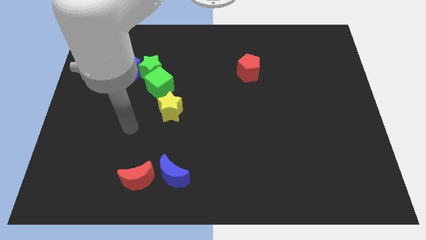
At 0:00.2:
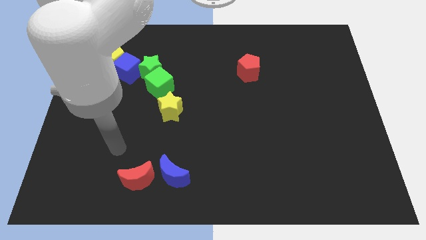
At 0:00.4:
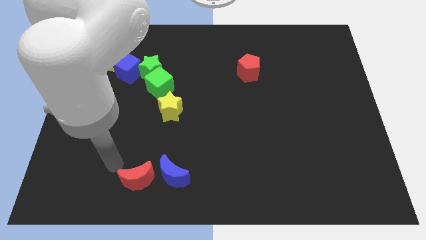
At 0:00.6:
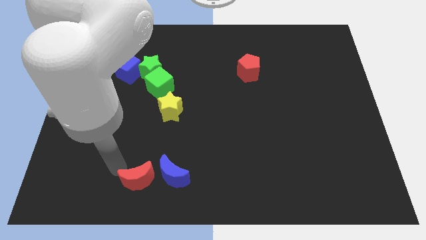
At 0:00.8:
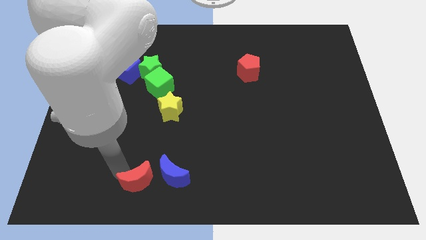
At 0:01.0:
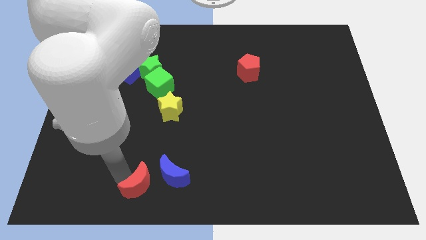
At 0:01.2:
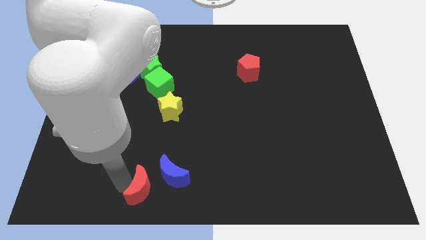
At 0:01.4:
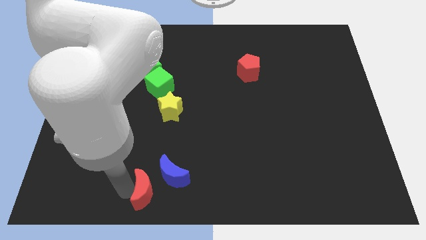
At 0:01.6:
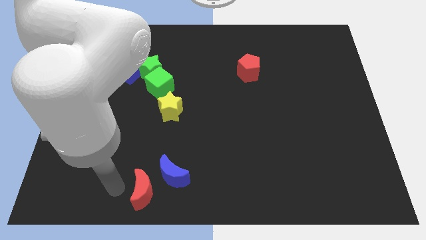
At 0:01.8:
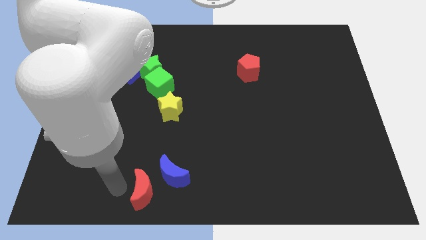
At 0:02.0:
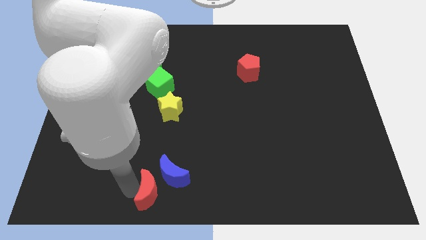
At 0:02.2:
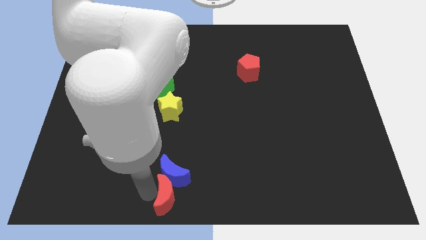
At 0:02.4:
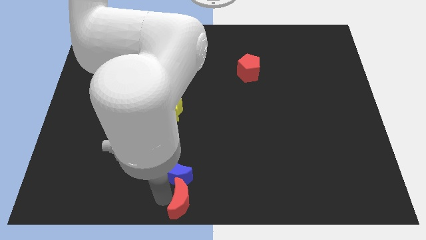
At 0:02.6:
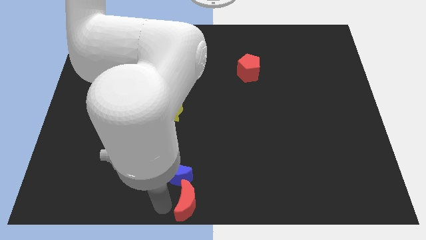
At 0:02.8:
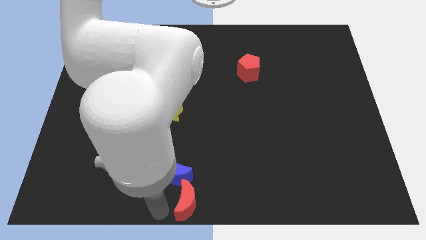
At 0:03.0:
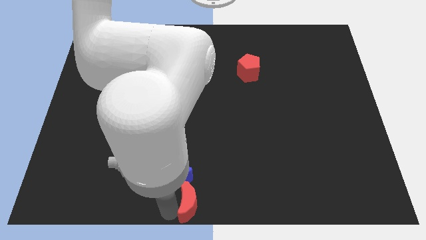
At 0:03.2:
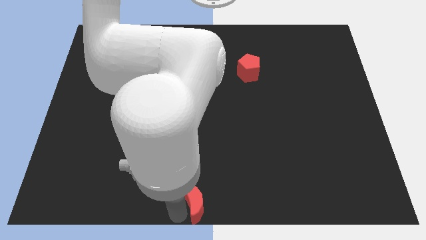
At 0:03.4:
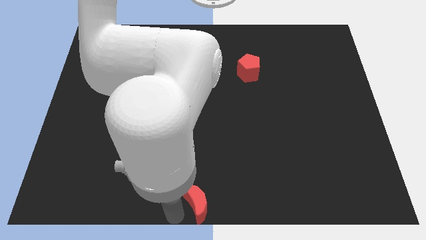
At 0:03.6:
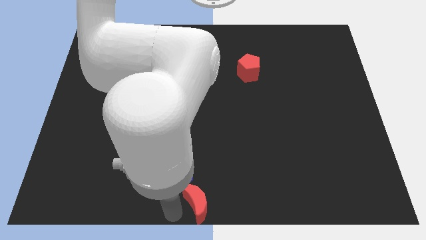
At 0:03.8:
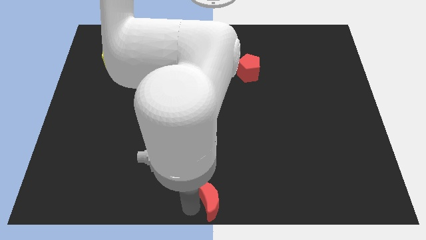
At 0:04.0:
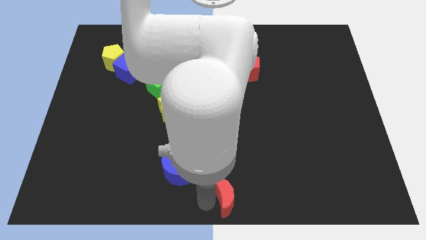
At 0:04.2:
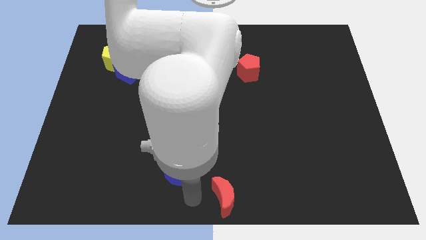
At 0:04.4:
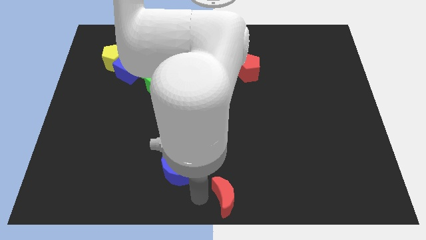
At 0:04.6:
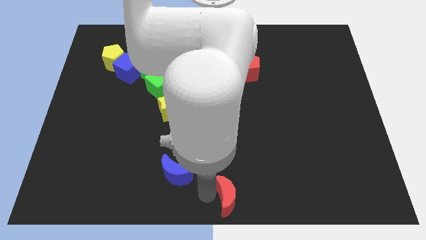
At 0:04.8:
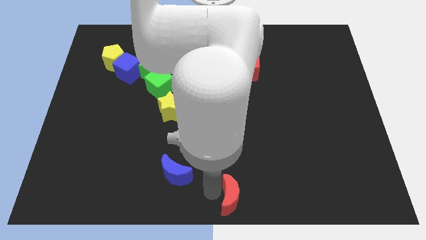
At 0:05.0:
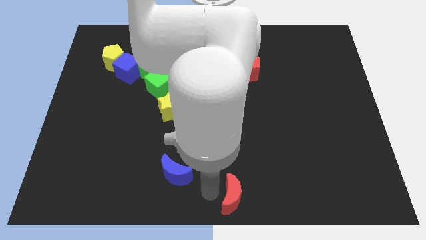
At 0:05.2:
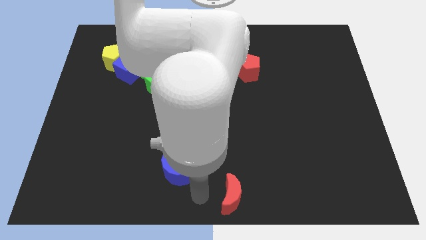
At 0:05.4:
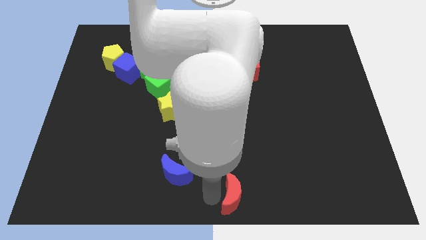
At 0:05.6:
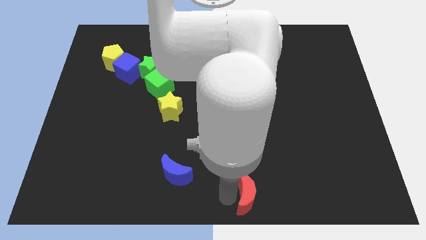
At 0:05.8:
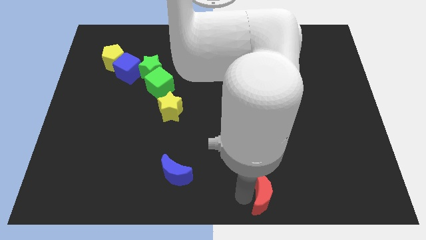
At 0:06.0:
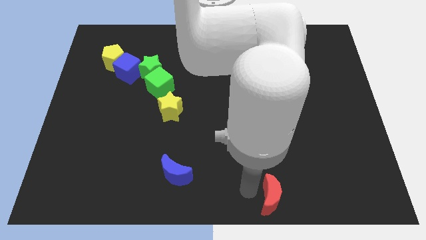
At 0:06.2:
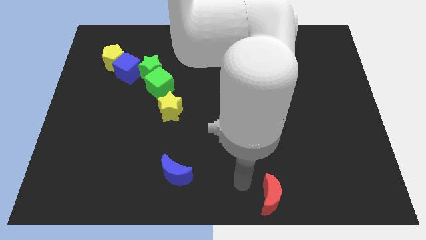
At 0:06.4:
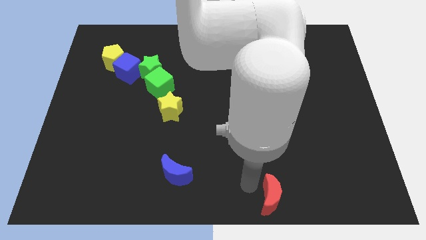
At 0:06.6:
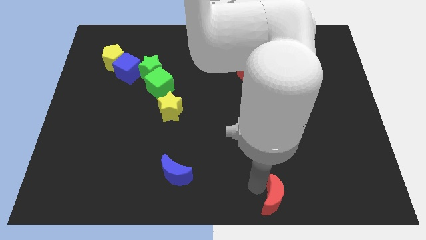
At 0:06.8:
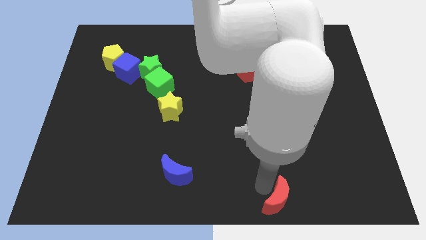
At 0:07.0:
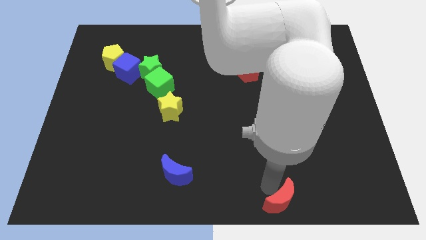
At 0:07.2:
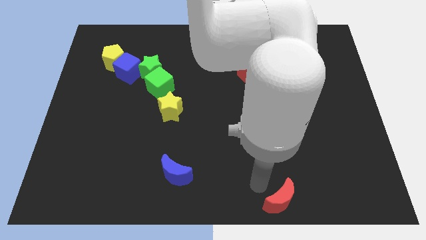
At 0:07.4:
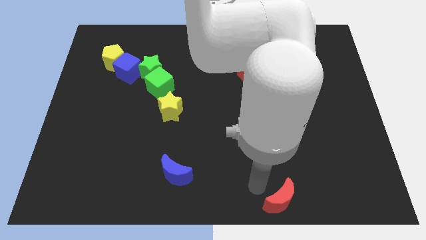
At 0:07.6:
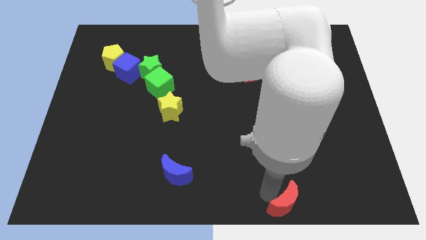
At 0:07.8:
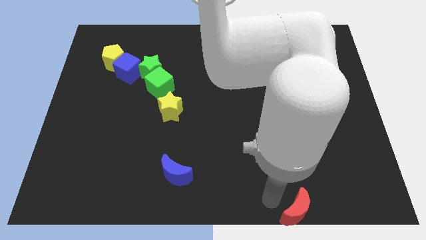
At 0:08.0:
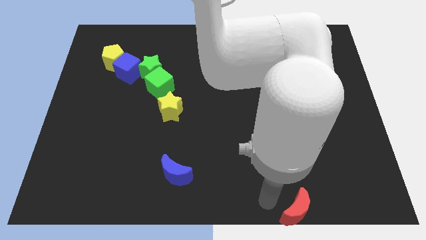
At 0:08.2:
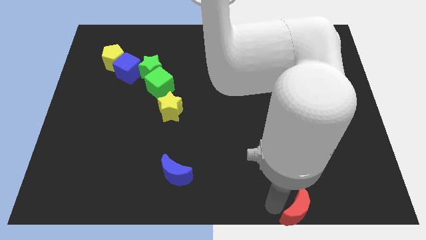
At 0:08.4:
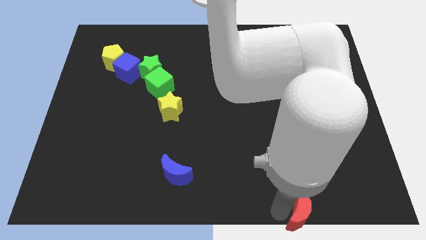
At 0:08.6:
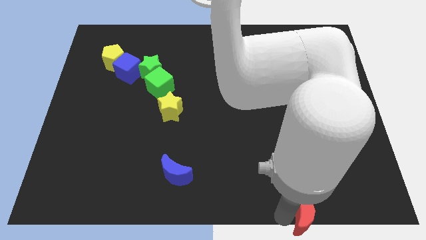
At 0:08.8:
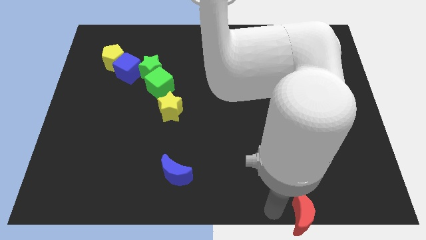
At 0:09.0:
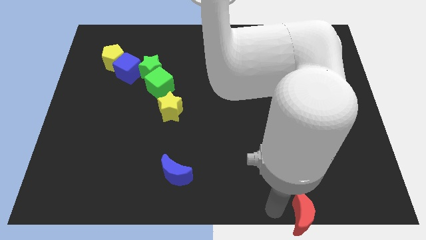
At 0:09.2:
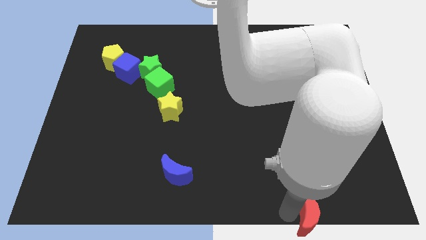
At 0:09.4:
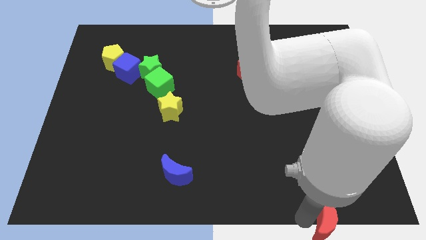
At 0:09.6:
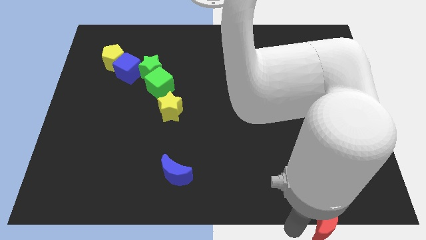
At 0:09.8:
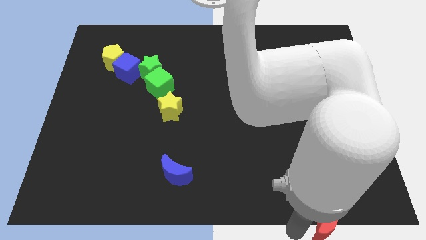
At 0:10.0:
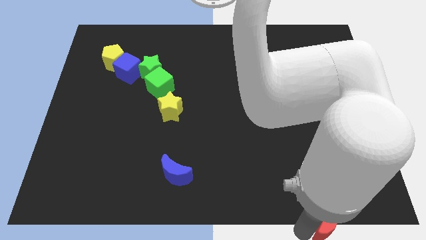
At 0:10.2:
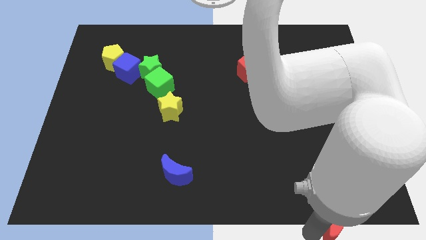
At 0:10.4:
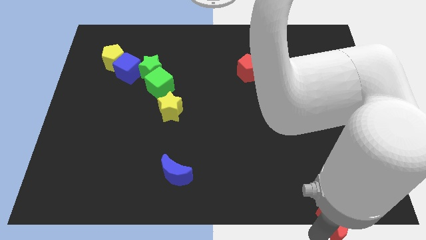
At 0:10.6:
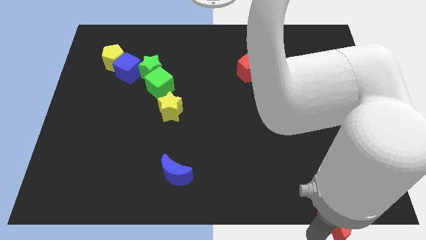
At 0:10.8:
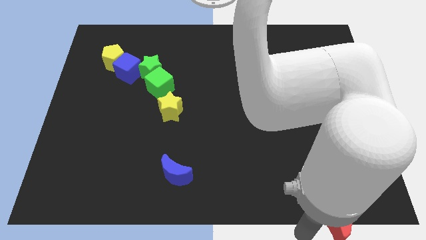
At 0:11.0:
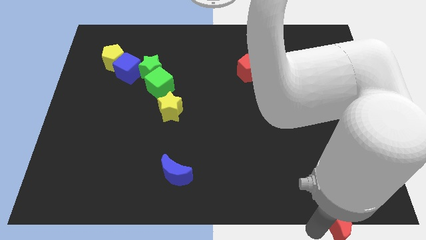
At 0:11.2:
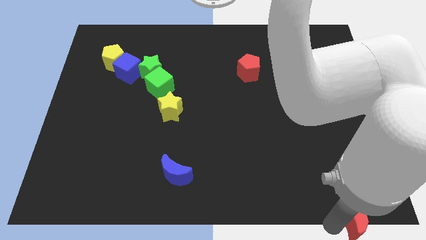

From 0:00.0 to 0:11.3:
move the red moon to the lower right corner
